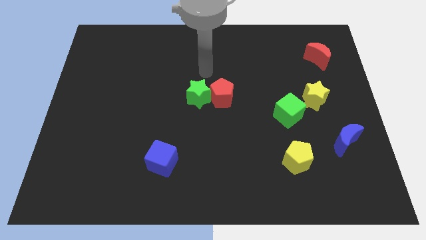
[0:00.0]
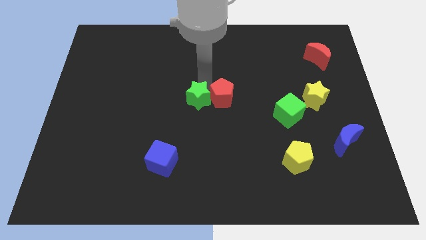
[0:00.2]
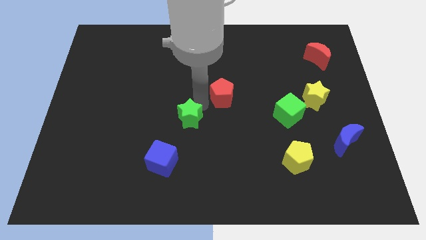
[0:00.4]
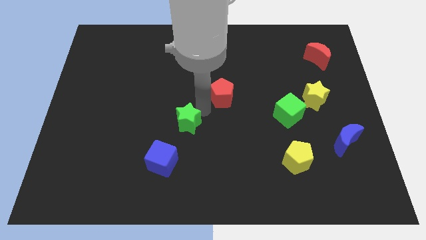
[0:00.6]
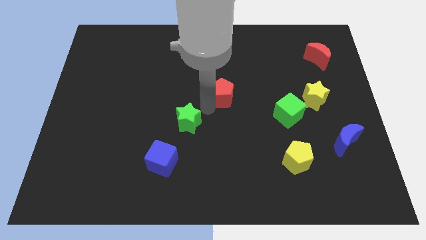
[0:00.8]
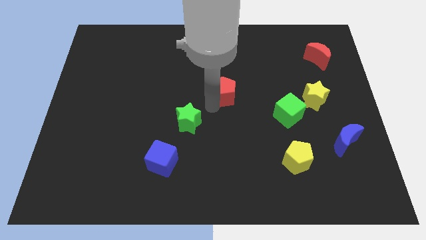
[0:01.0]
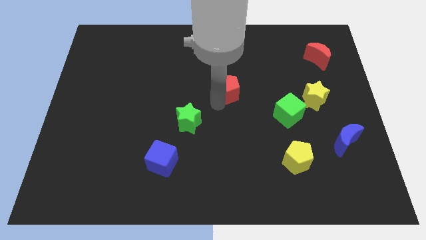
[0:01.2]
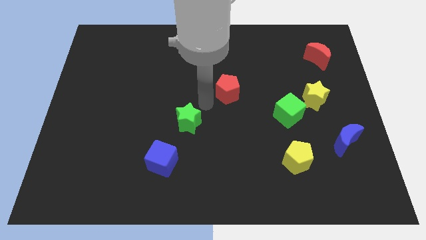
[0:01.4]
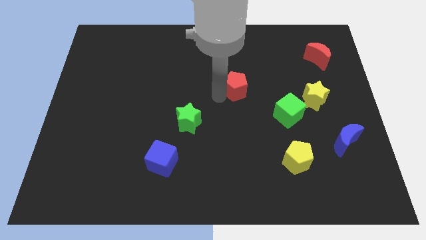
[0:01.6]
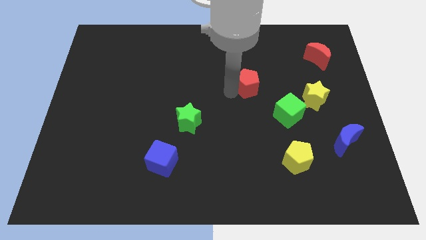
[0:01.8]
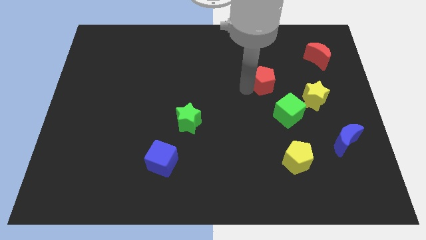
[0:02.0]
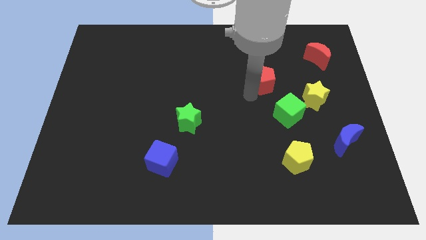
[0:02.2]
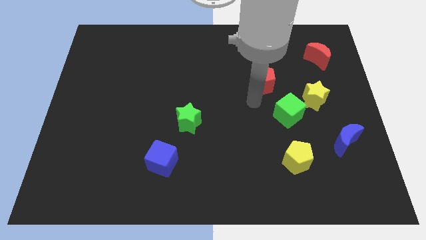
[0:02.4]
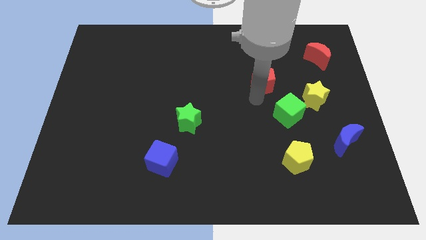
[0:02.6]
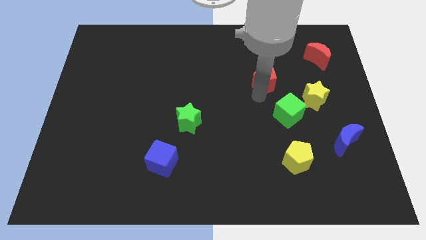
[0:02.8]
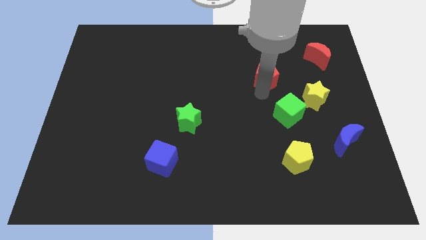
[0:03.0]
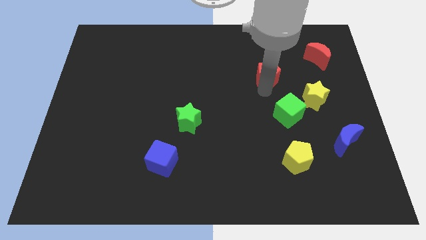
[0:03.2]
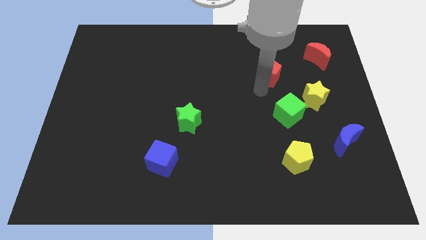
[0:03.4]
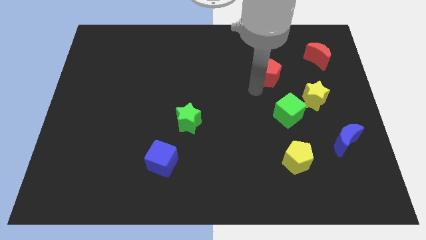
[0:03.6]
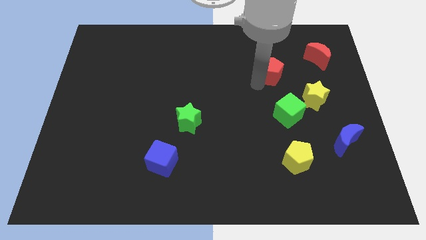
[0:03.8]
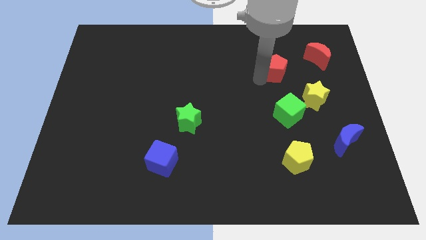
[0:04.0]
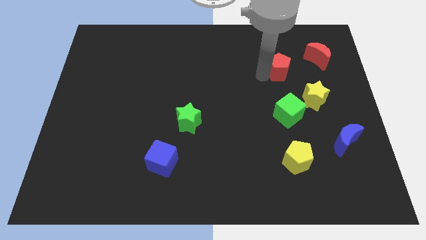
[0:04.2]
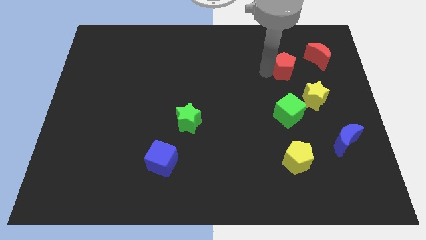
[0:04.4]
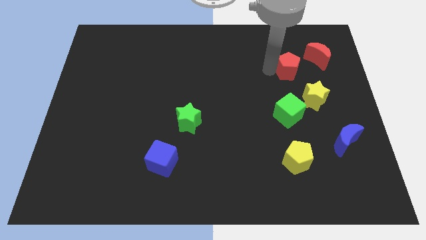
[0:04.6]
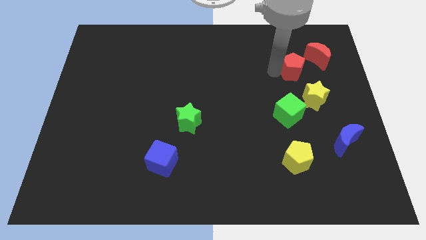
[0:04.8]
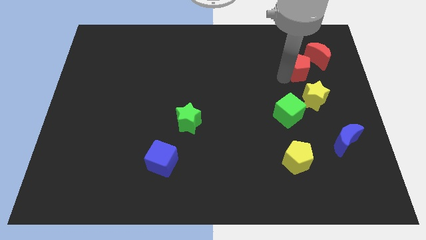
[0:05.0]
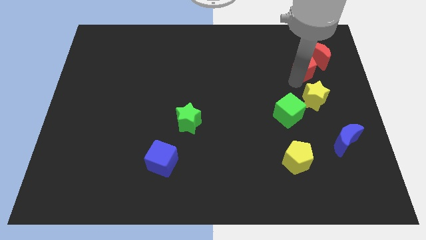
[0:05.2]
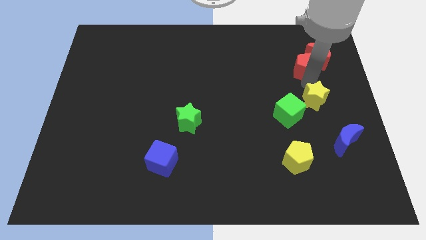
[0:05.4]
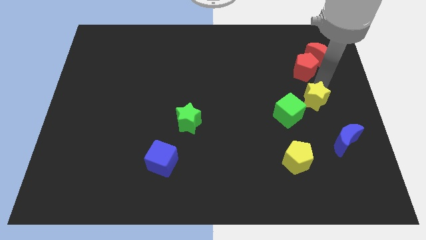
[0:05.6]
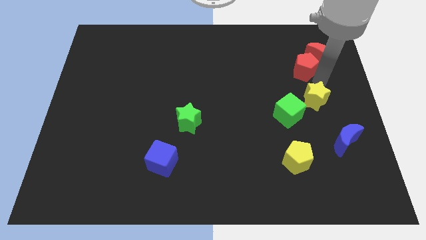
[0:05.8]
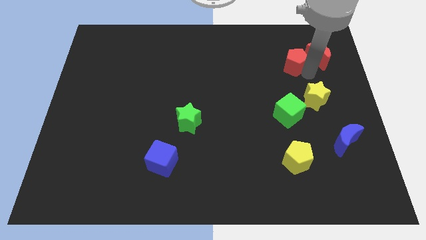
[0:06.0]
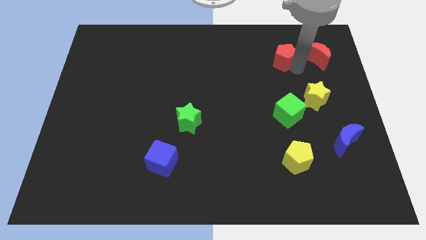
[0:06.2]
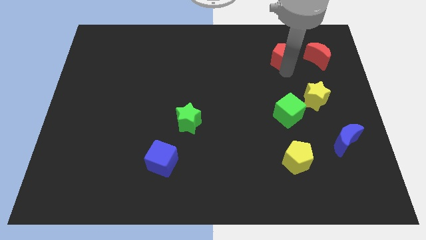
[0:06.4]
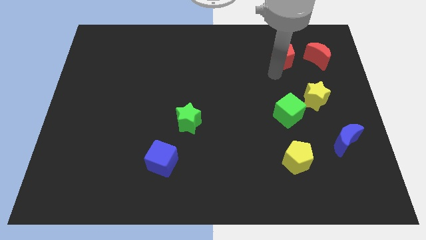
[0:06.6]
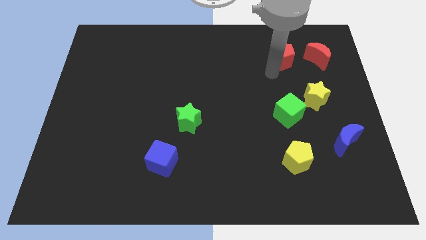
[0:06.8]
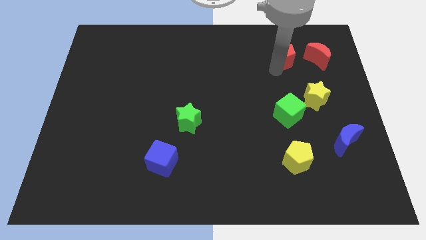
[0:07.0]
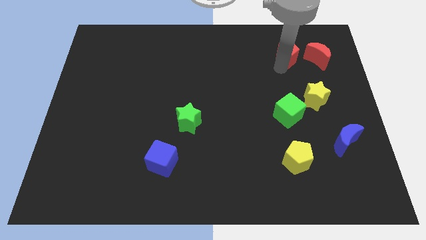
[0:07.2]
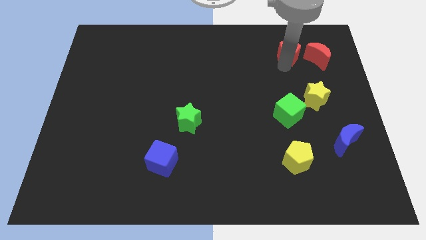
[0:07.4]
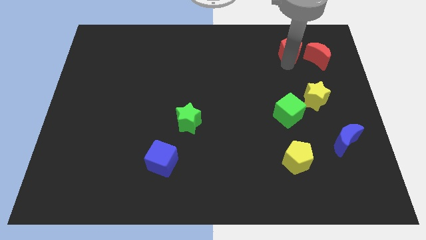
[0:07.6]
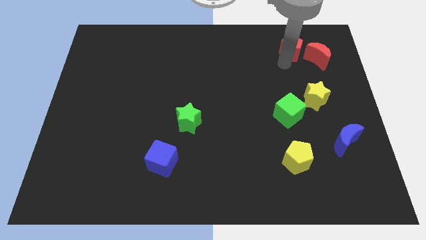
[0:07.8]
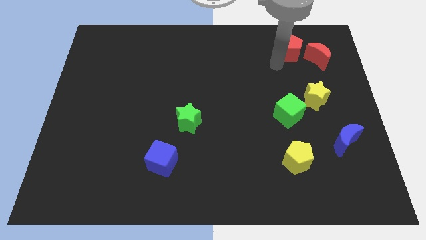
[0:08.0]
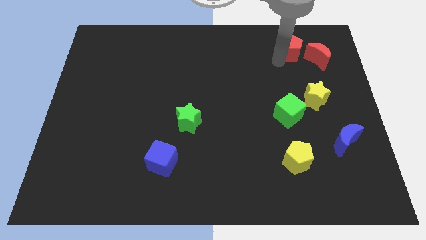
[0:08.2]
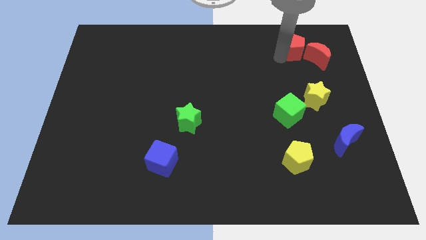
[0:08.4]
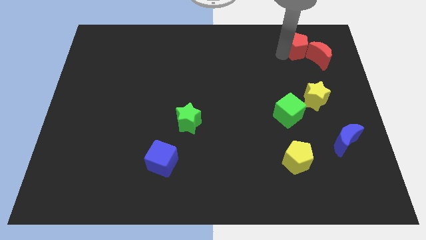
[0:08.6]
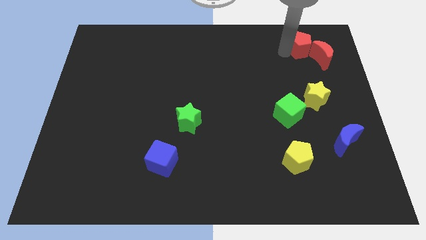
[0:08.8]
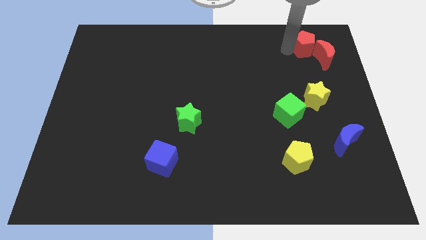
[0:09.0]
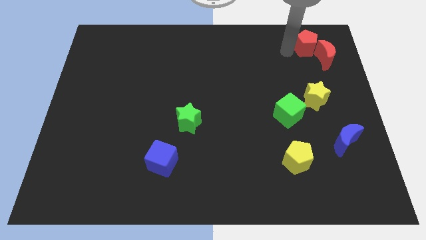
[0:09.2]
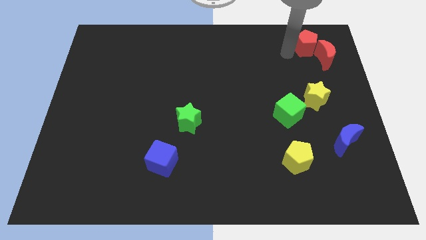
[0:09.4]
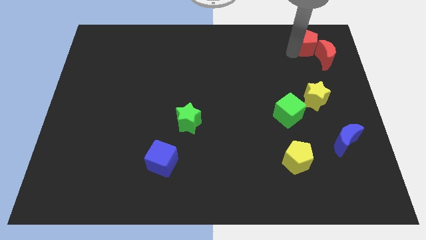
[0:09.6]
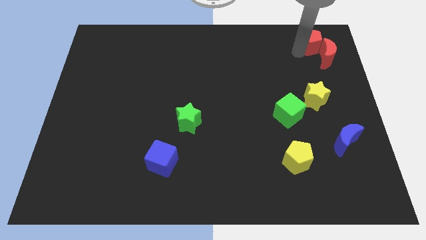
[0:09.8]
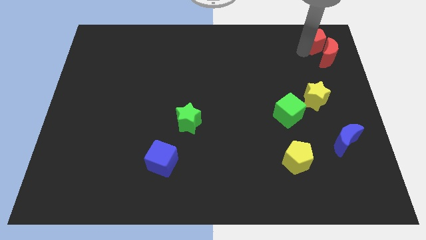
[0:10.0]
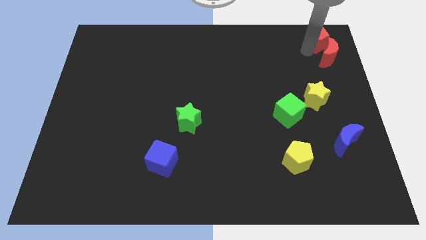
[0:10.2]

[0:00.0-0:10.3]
put the red pentagon to the top right of the board

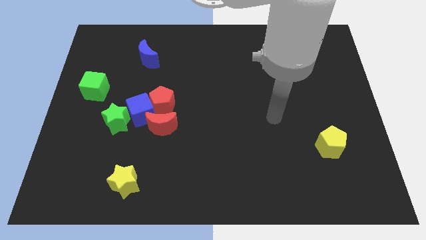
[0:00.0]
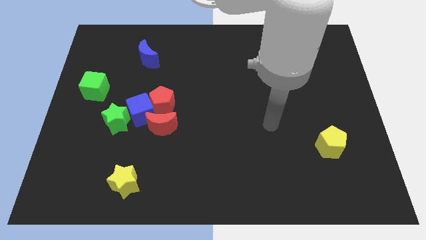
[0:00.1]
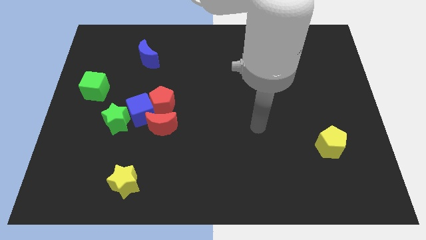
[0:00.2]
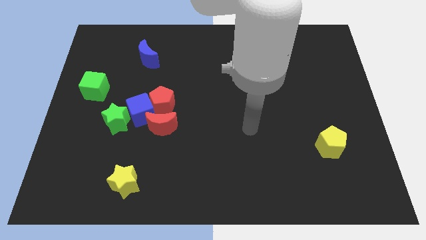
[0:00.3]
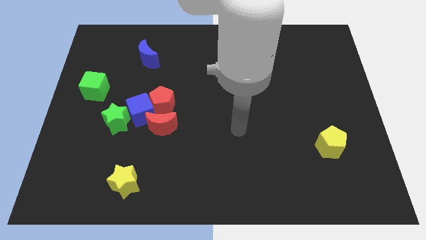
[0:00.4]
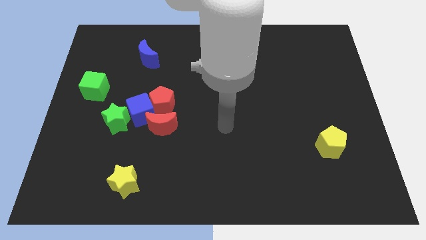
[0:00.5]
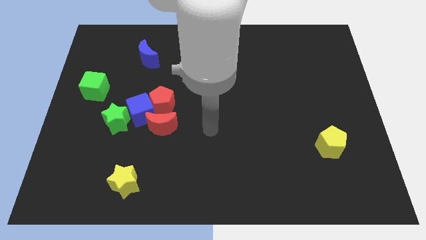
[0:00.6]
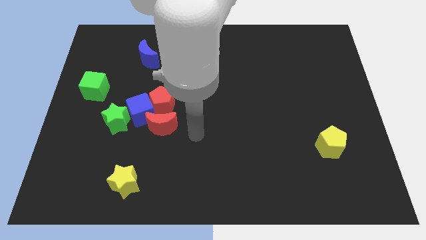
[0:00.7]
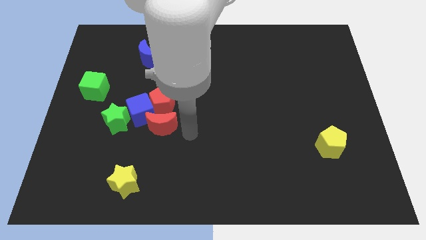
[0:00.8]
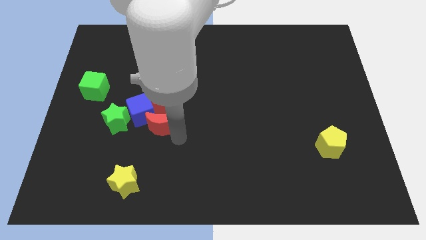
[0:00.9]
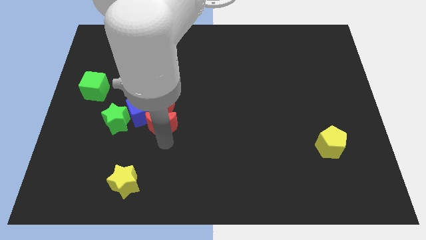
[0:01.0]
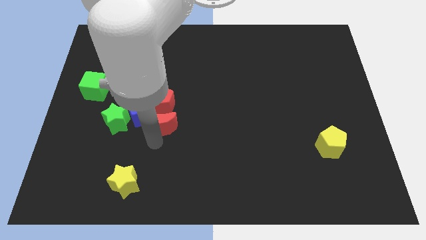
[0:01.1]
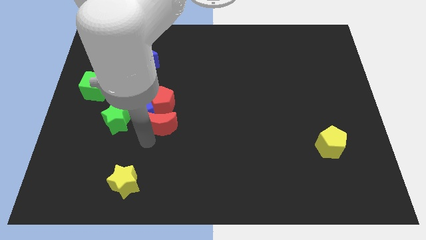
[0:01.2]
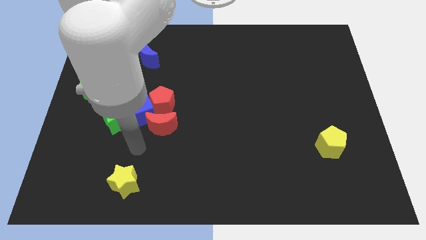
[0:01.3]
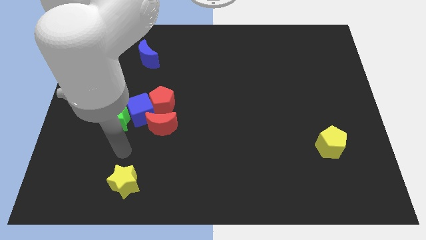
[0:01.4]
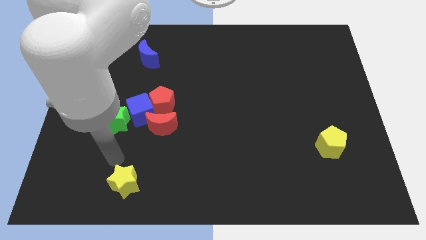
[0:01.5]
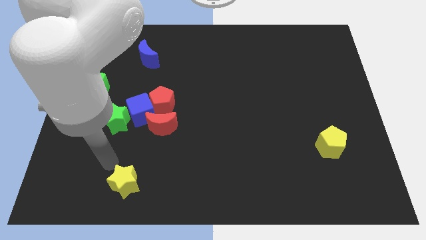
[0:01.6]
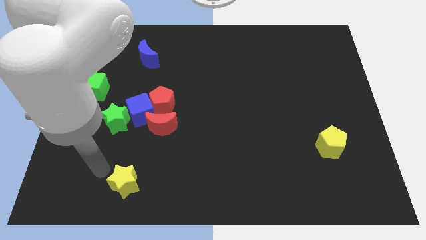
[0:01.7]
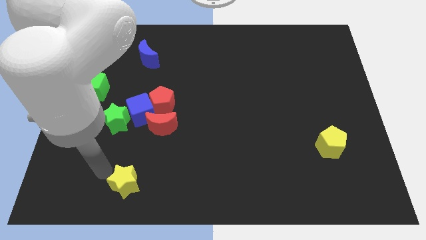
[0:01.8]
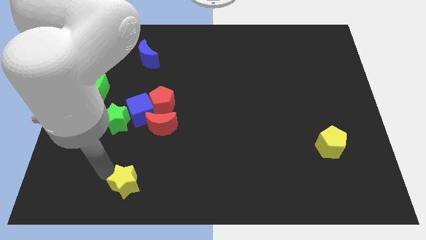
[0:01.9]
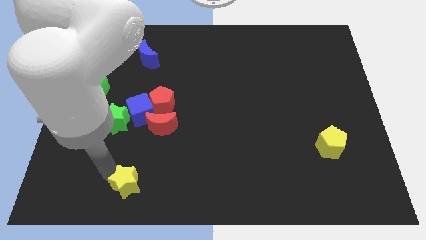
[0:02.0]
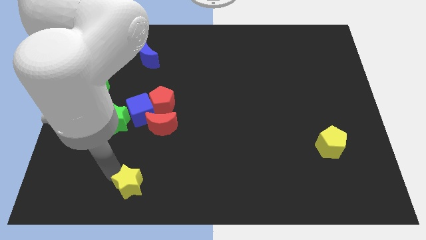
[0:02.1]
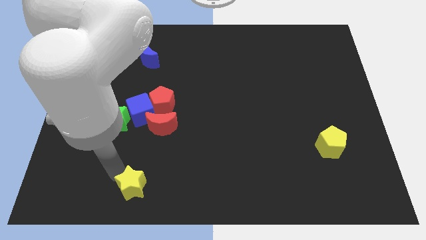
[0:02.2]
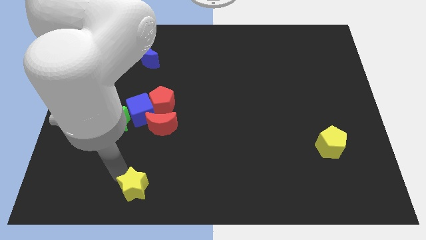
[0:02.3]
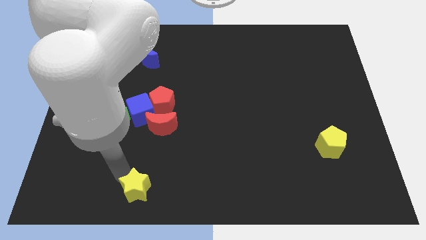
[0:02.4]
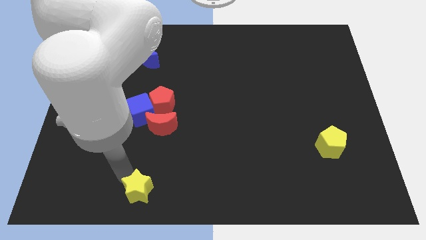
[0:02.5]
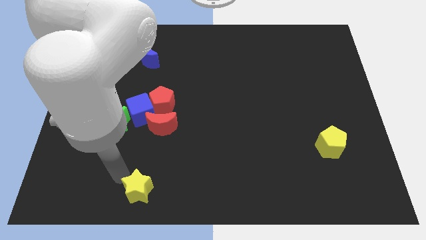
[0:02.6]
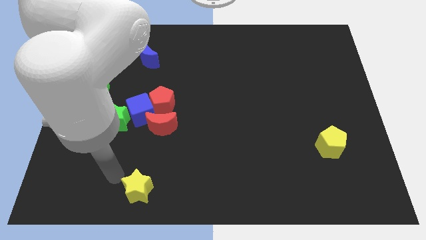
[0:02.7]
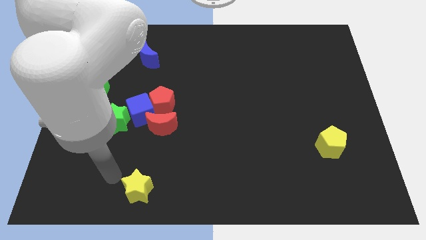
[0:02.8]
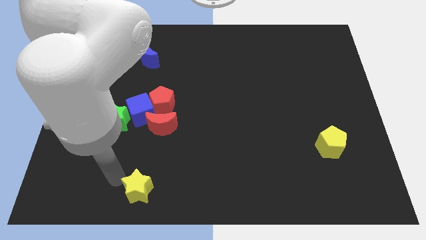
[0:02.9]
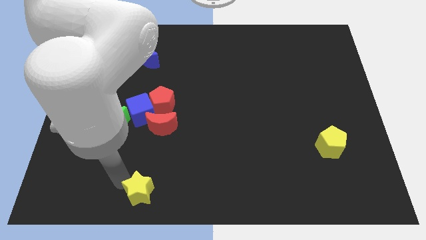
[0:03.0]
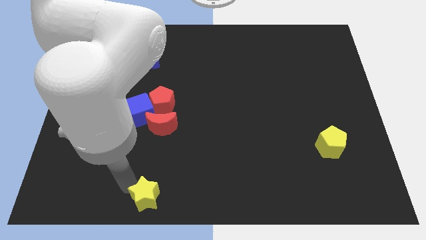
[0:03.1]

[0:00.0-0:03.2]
slide the yellow star to the bottom side
